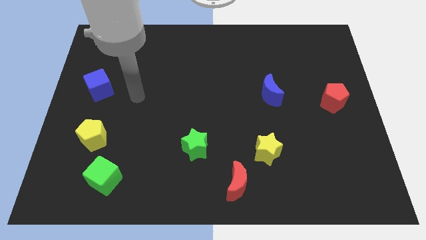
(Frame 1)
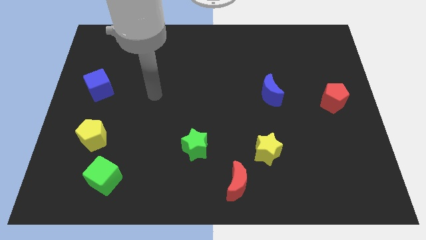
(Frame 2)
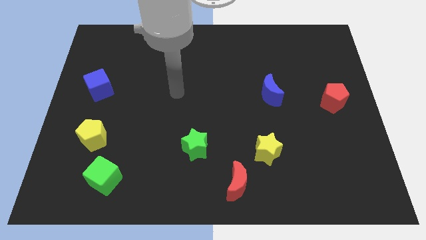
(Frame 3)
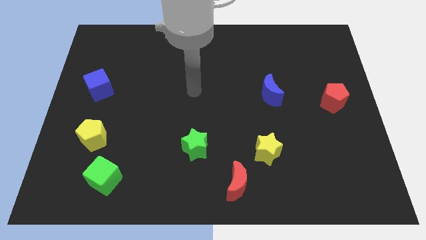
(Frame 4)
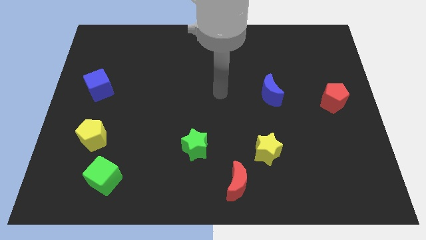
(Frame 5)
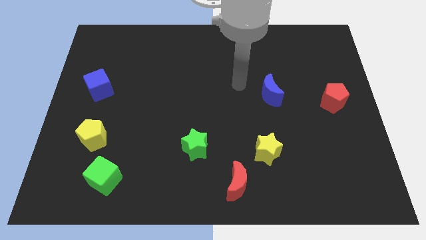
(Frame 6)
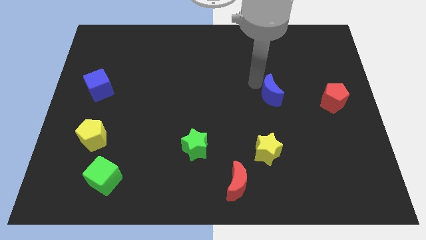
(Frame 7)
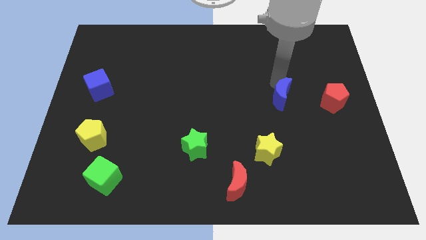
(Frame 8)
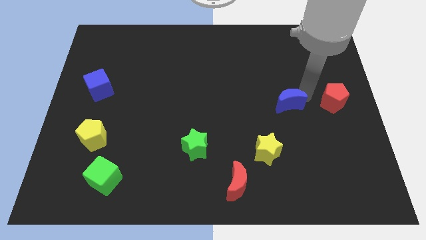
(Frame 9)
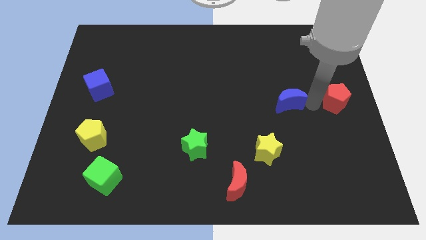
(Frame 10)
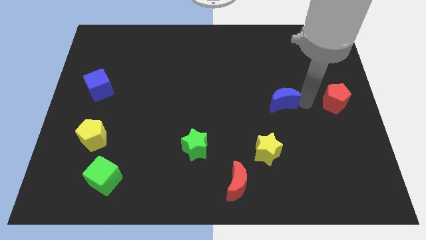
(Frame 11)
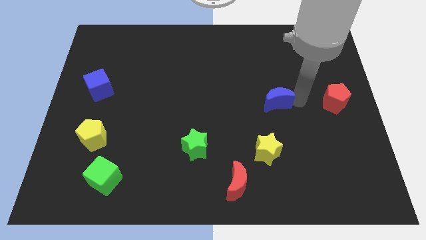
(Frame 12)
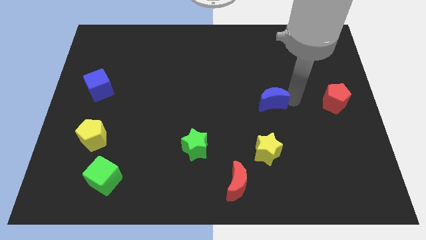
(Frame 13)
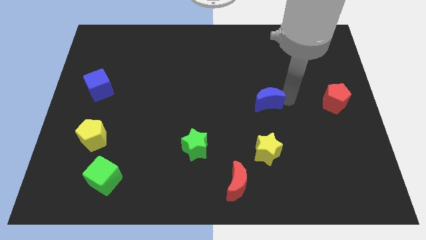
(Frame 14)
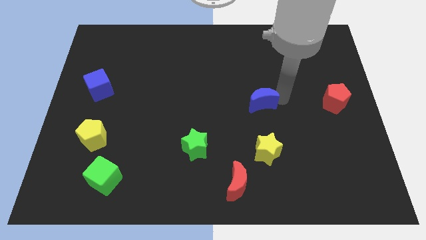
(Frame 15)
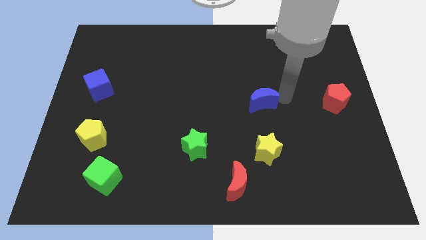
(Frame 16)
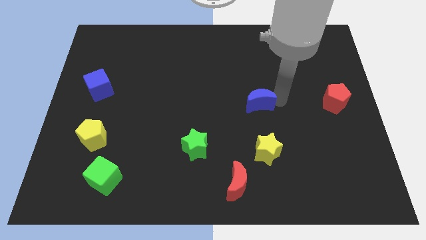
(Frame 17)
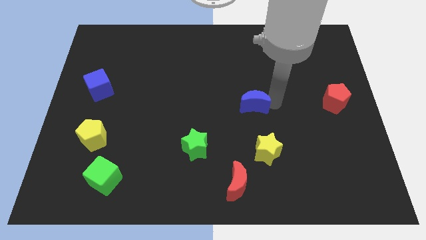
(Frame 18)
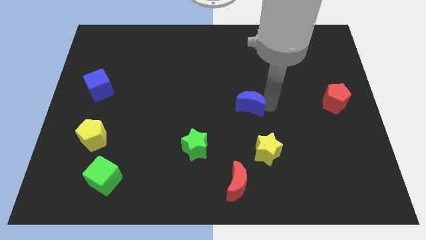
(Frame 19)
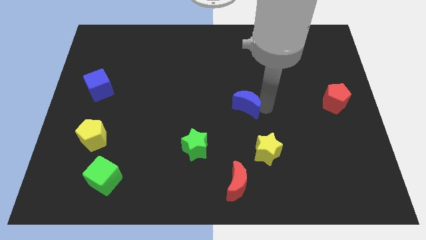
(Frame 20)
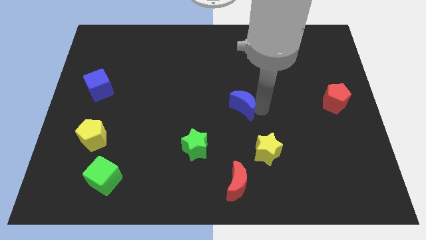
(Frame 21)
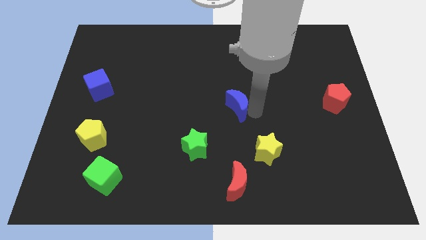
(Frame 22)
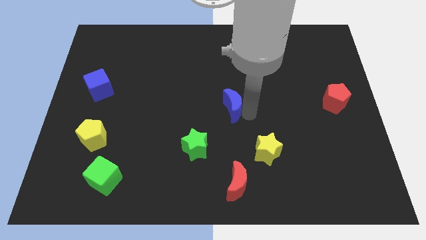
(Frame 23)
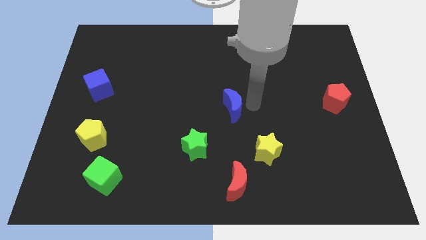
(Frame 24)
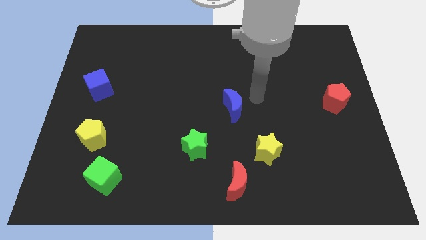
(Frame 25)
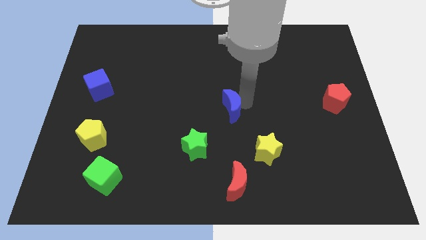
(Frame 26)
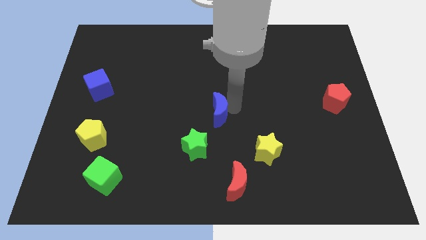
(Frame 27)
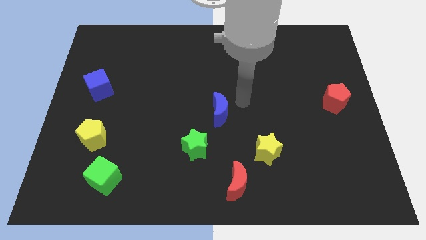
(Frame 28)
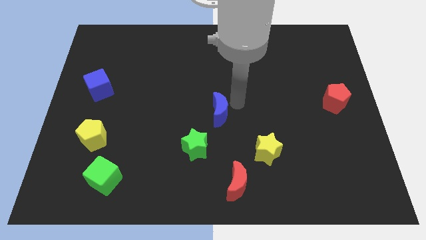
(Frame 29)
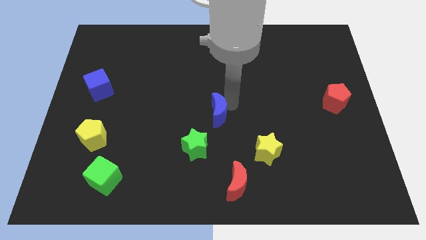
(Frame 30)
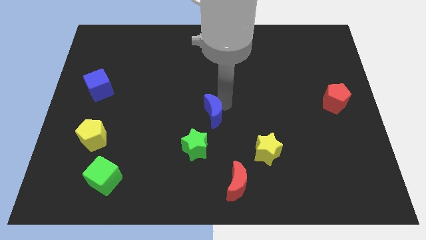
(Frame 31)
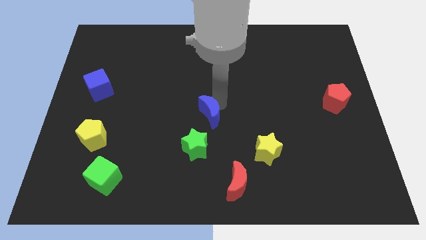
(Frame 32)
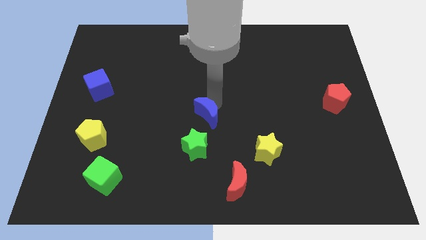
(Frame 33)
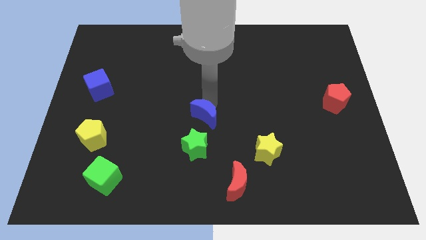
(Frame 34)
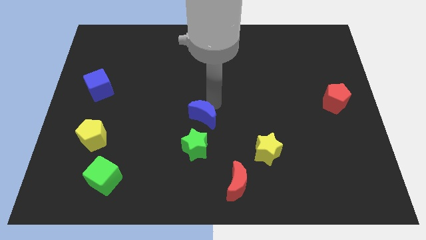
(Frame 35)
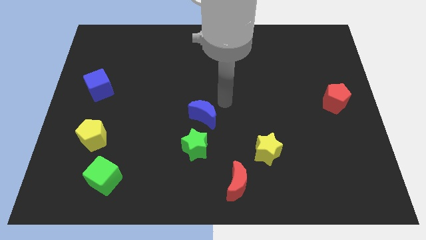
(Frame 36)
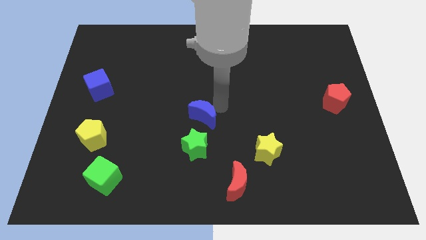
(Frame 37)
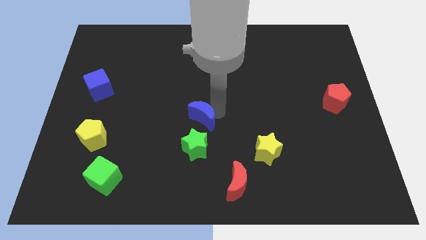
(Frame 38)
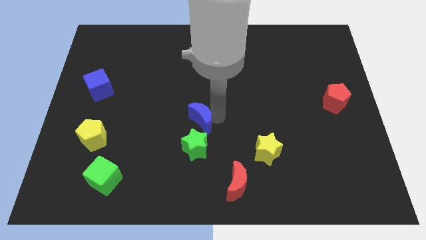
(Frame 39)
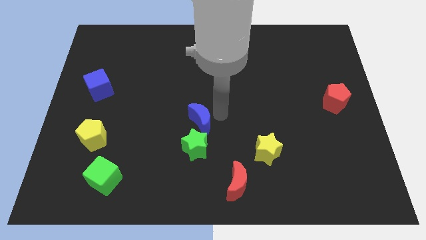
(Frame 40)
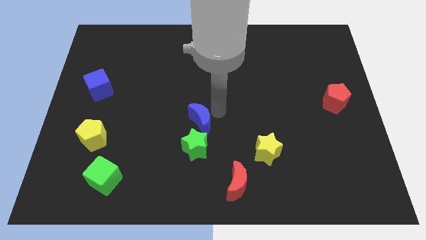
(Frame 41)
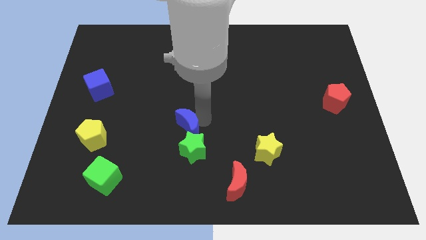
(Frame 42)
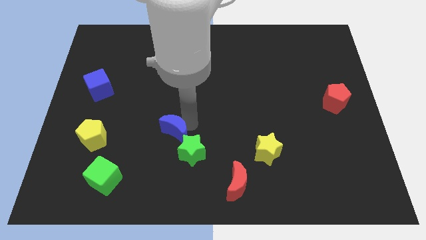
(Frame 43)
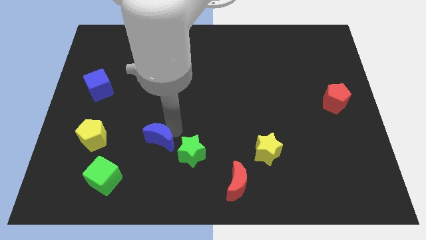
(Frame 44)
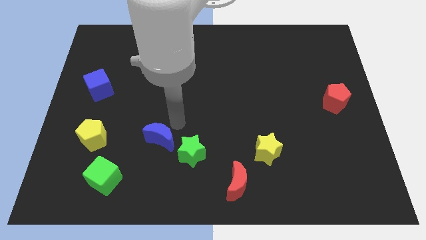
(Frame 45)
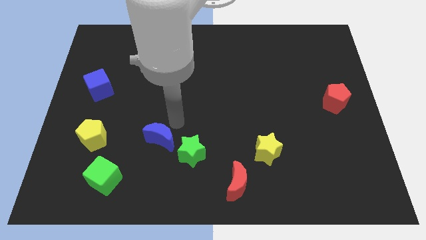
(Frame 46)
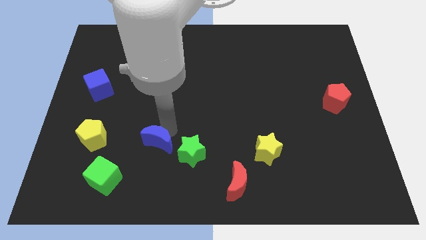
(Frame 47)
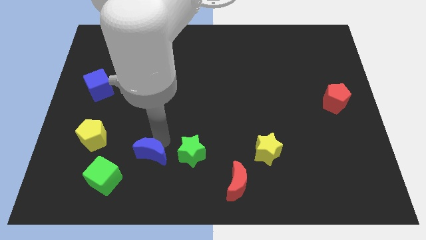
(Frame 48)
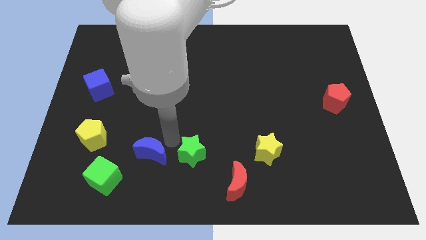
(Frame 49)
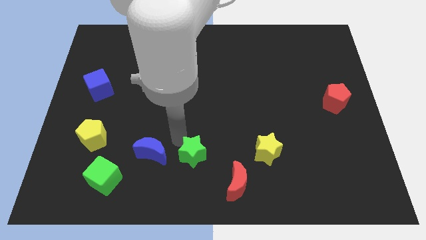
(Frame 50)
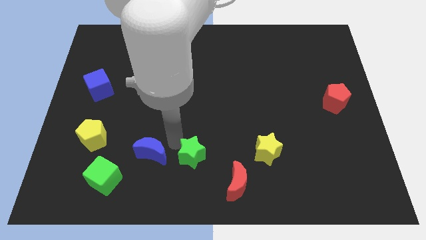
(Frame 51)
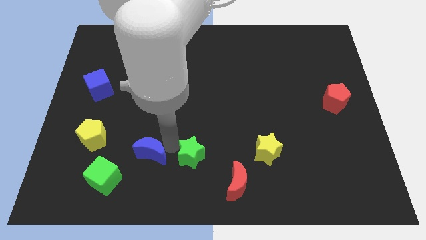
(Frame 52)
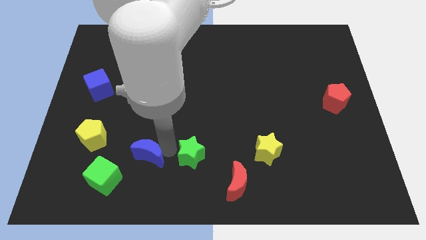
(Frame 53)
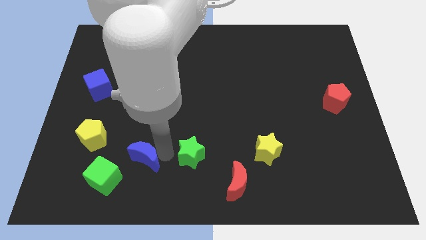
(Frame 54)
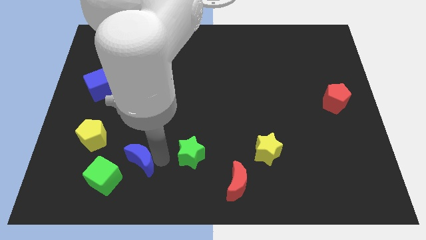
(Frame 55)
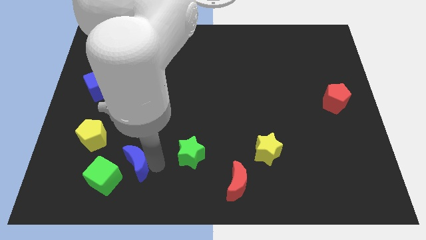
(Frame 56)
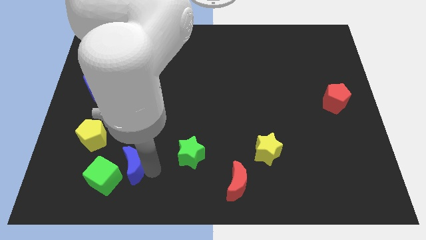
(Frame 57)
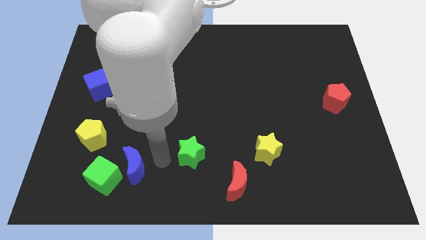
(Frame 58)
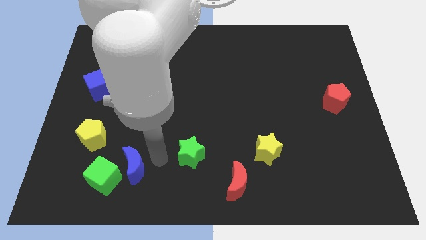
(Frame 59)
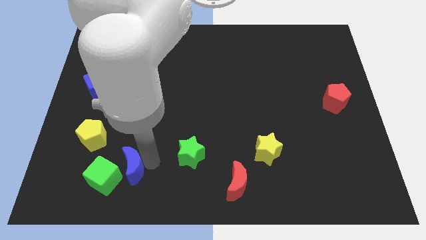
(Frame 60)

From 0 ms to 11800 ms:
move the blue moon towards the green cube

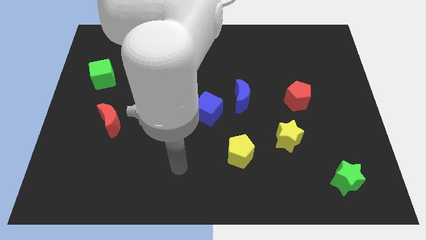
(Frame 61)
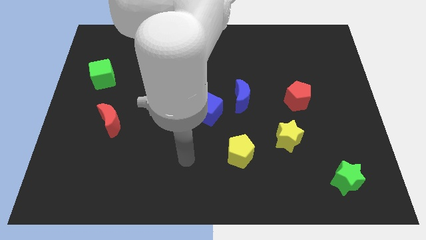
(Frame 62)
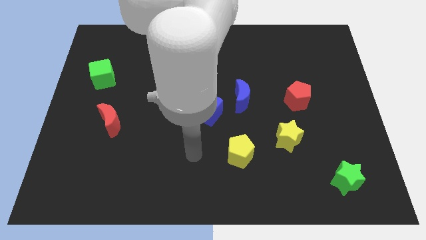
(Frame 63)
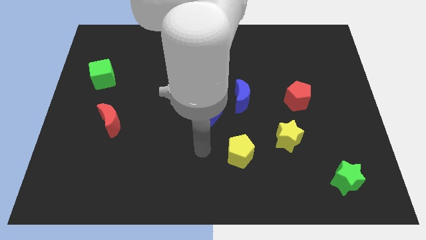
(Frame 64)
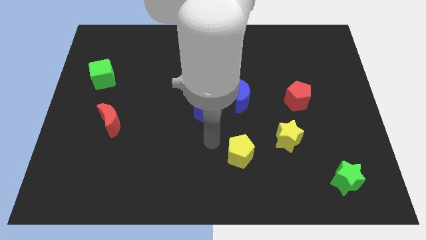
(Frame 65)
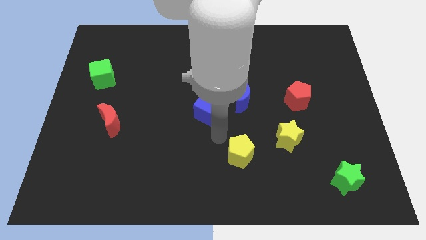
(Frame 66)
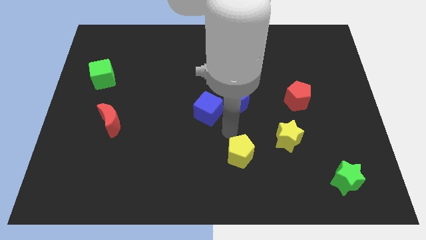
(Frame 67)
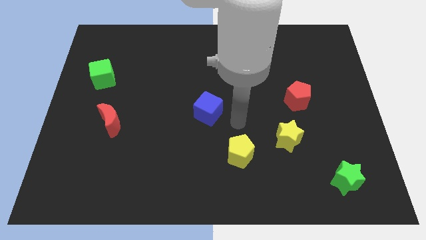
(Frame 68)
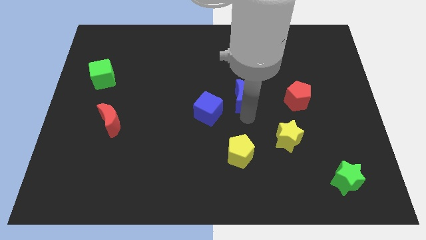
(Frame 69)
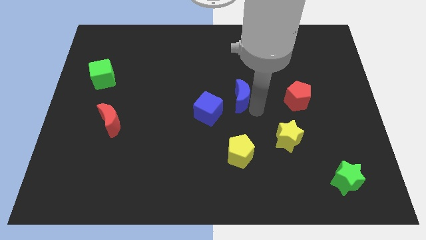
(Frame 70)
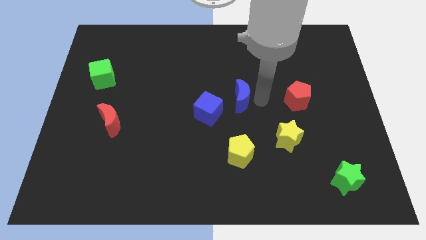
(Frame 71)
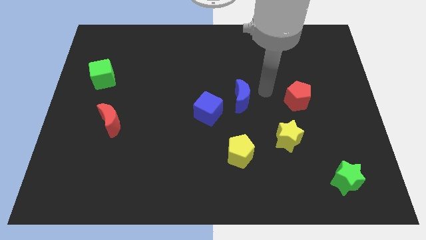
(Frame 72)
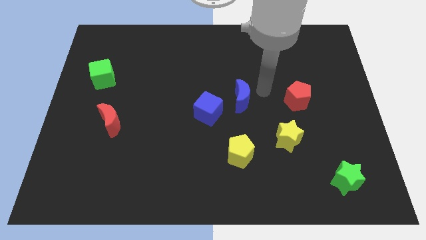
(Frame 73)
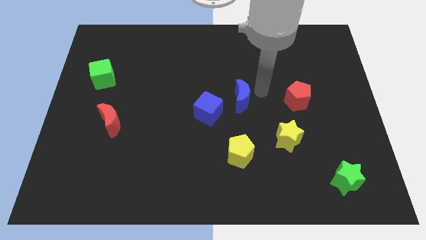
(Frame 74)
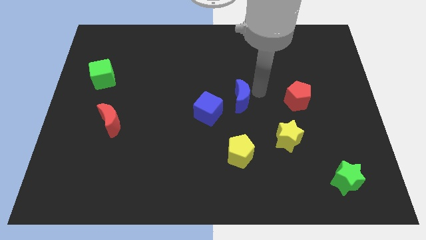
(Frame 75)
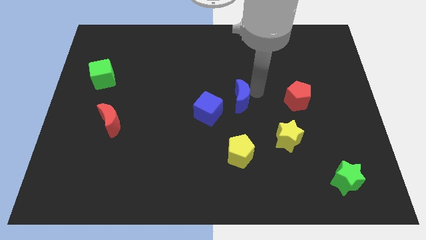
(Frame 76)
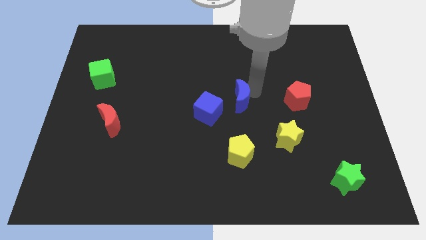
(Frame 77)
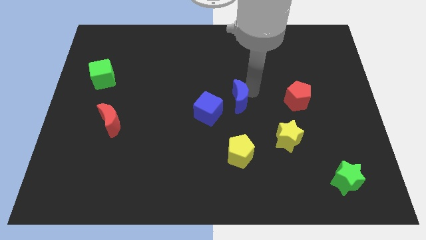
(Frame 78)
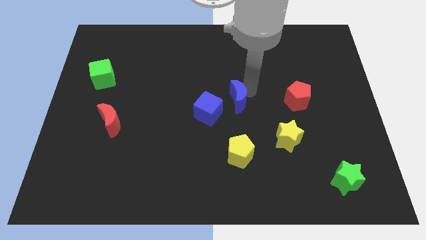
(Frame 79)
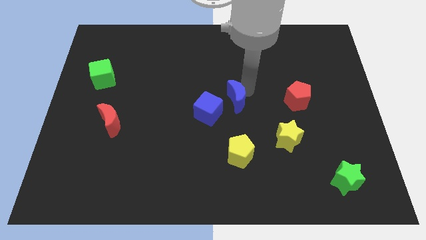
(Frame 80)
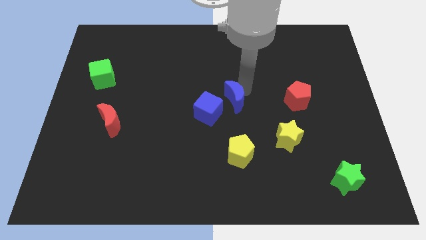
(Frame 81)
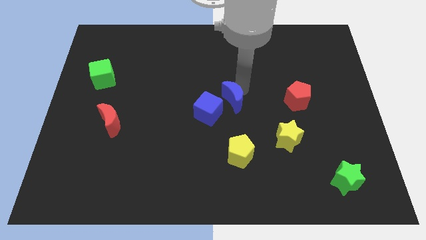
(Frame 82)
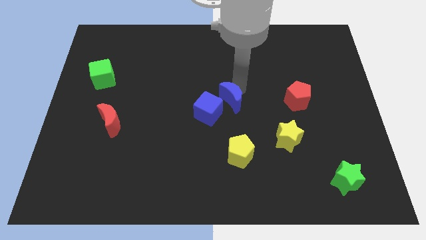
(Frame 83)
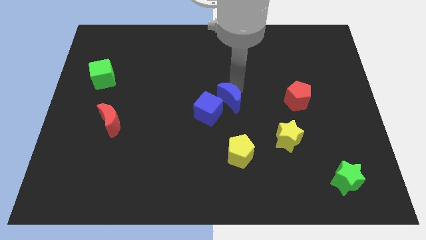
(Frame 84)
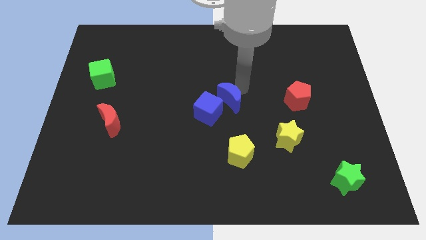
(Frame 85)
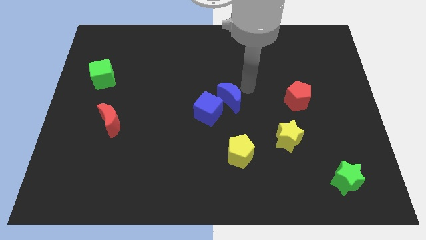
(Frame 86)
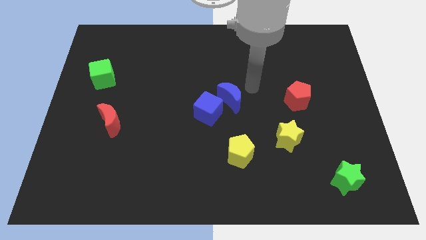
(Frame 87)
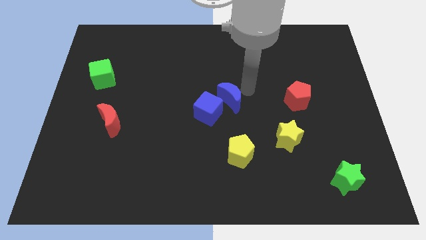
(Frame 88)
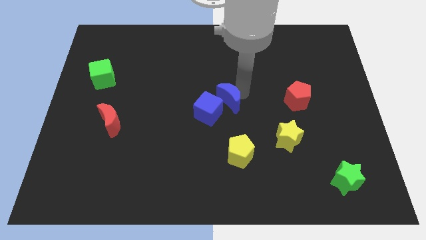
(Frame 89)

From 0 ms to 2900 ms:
slide the blue moon to the blue cube
